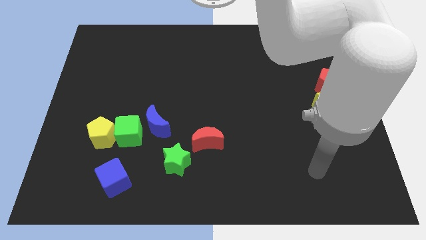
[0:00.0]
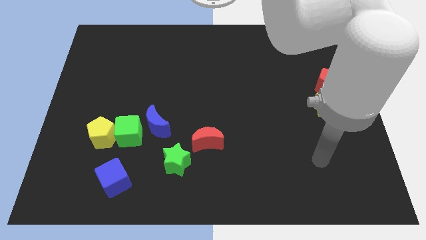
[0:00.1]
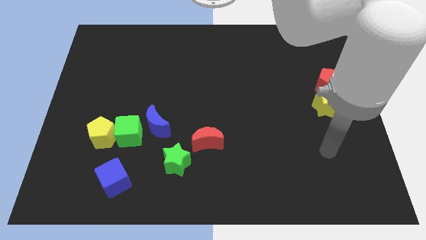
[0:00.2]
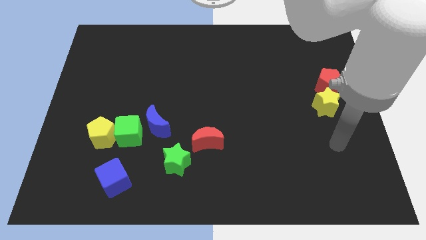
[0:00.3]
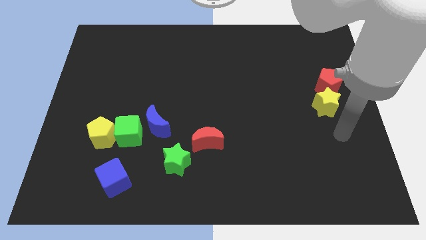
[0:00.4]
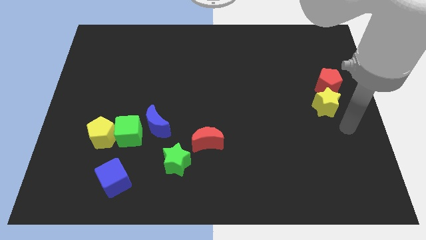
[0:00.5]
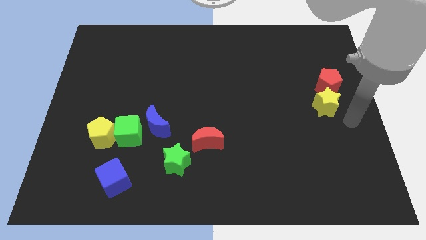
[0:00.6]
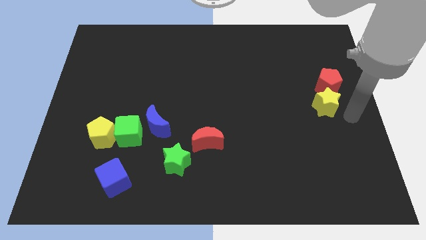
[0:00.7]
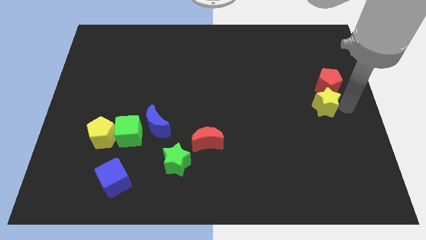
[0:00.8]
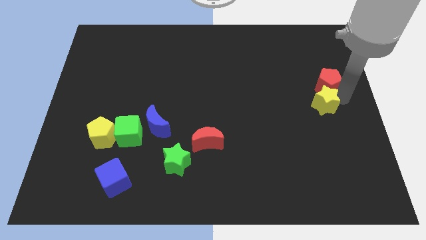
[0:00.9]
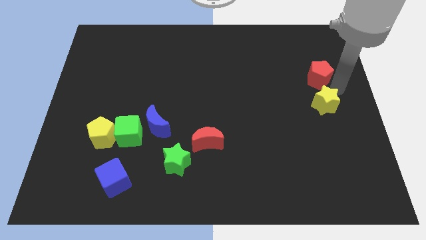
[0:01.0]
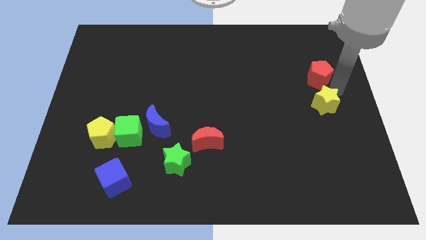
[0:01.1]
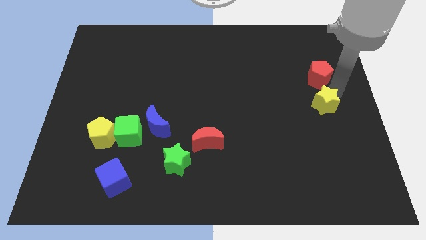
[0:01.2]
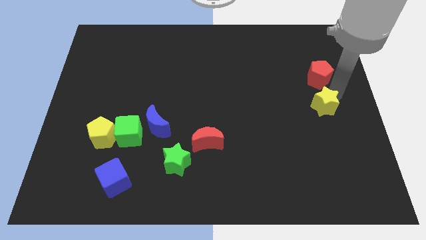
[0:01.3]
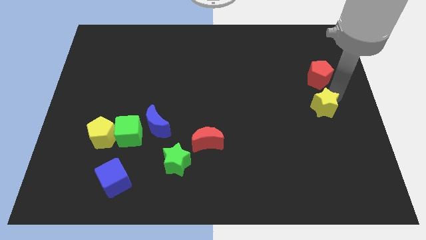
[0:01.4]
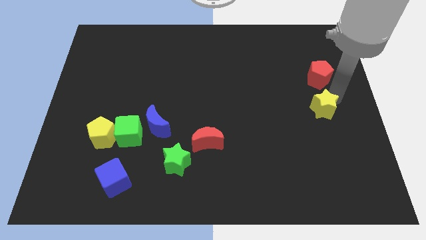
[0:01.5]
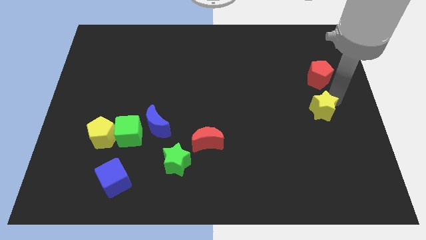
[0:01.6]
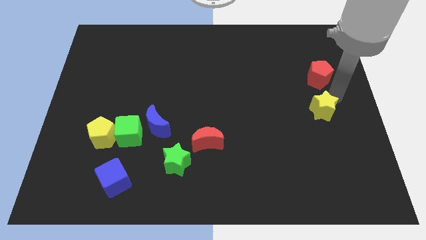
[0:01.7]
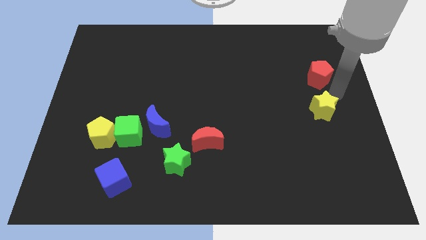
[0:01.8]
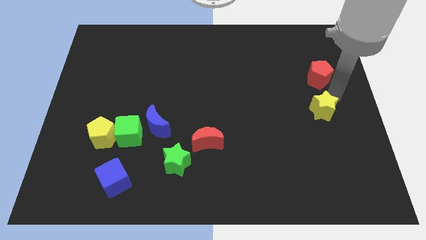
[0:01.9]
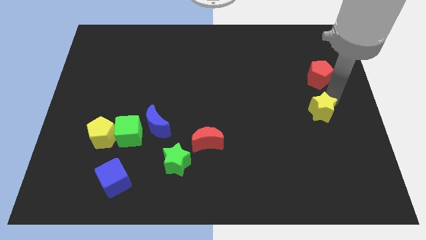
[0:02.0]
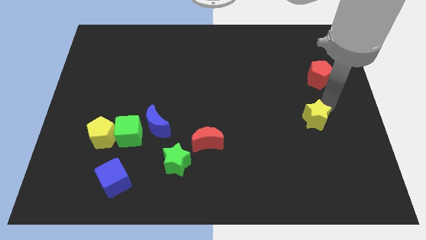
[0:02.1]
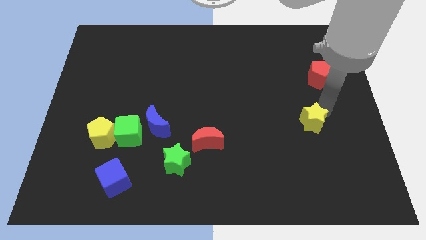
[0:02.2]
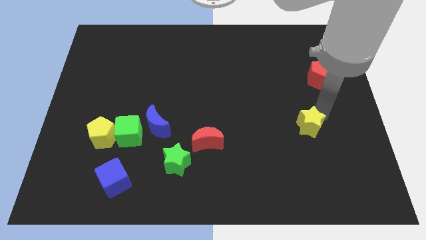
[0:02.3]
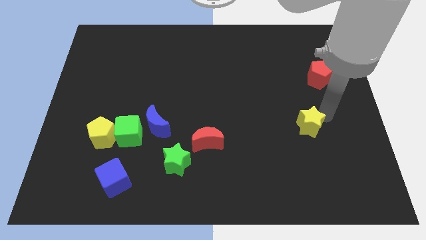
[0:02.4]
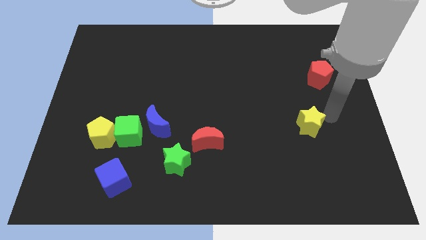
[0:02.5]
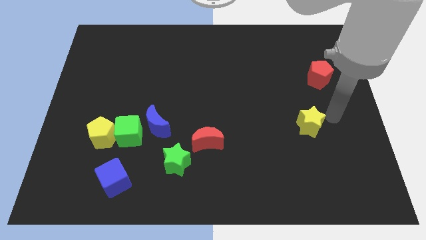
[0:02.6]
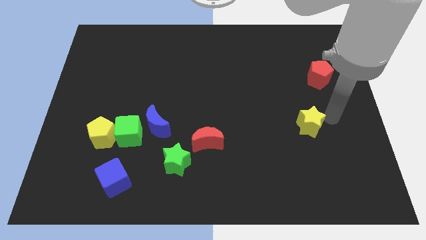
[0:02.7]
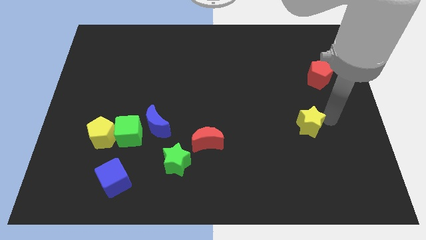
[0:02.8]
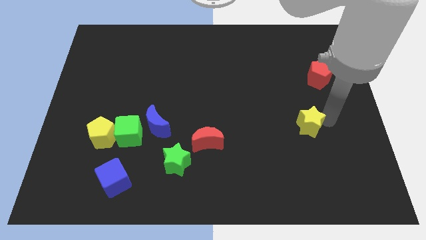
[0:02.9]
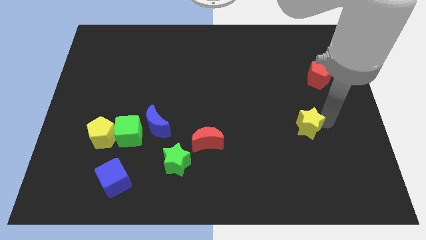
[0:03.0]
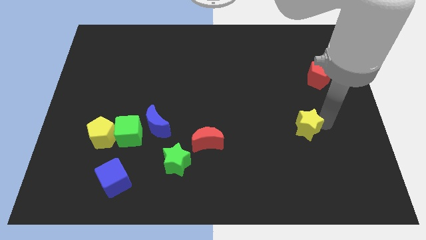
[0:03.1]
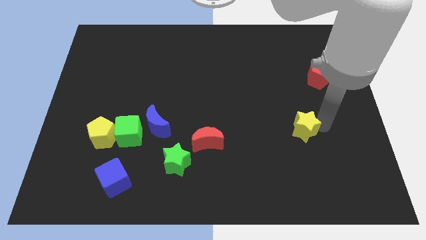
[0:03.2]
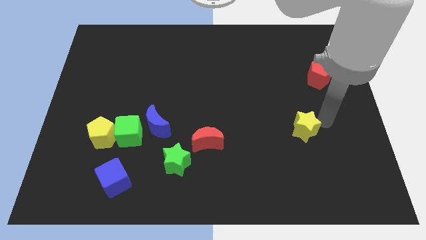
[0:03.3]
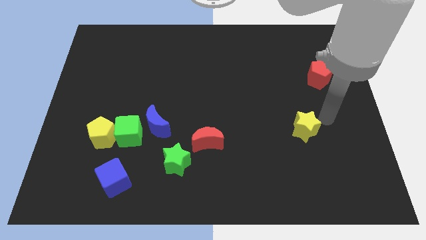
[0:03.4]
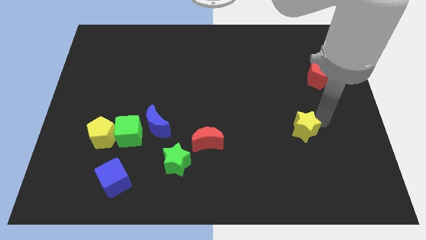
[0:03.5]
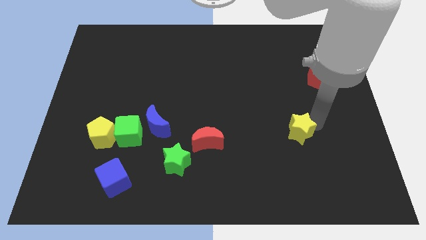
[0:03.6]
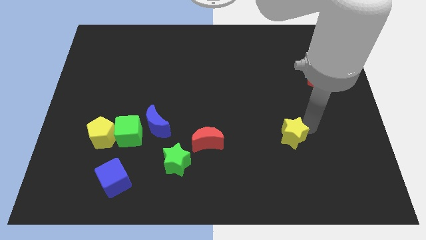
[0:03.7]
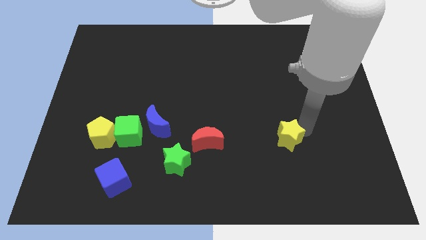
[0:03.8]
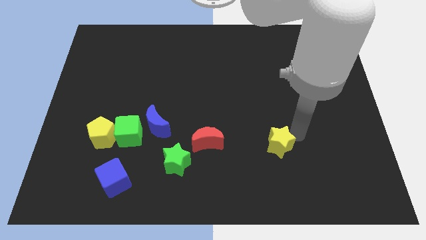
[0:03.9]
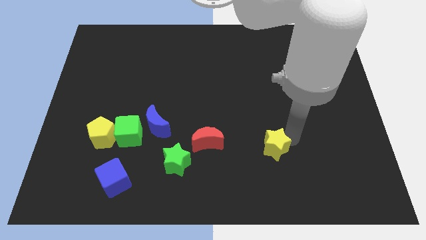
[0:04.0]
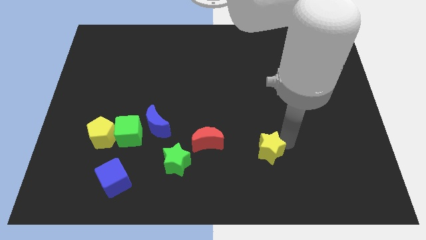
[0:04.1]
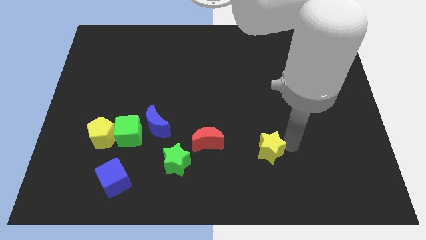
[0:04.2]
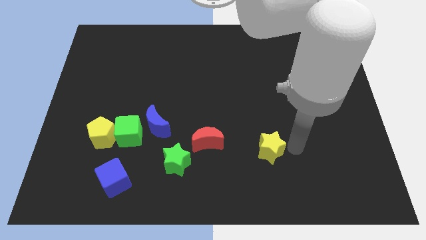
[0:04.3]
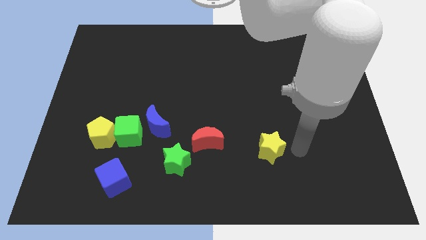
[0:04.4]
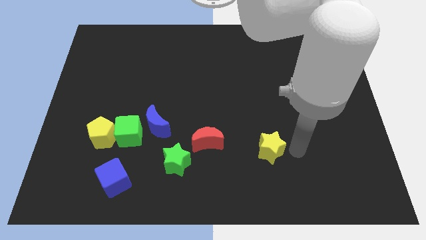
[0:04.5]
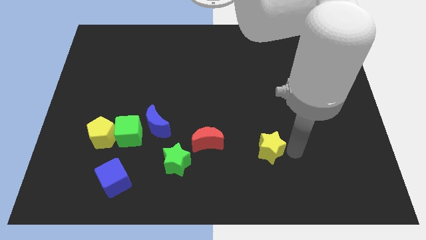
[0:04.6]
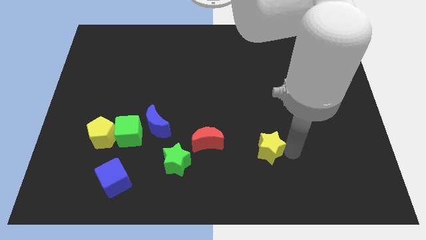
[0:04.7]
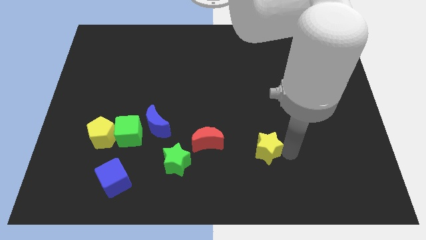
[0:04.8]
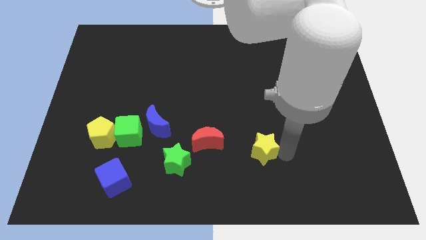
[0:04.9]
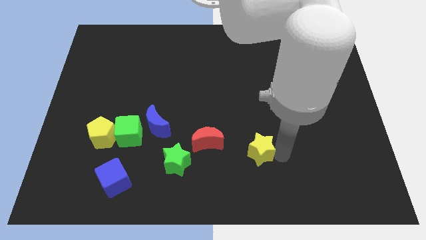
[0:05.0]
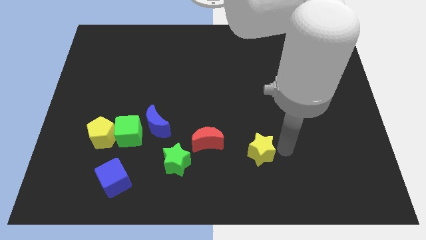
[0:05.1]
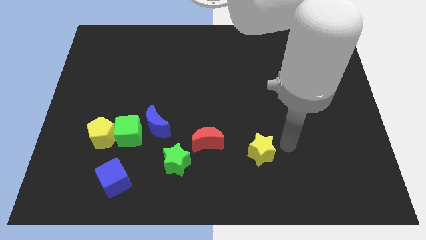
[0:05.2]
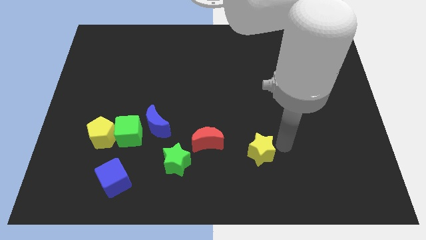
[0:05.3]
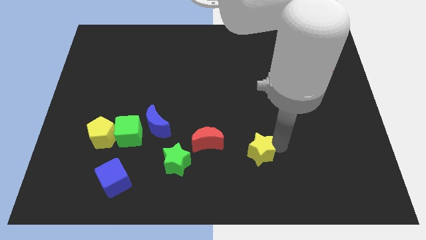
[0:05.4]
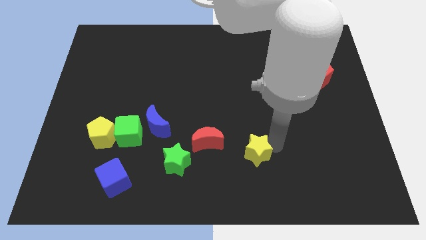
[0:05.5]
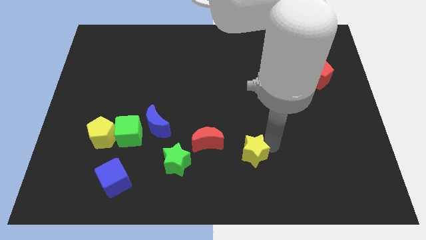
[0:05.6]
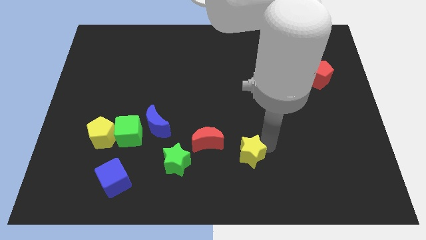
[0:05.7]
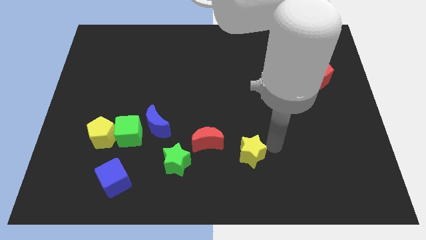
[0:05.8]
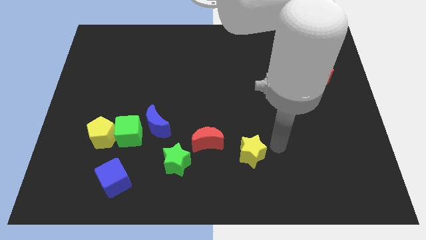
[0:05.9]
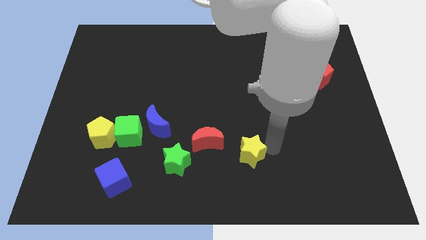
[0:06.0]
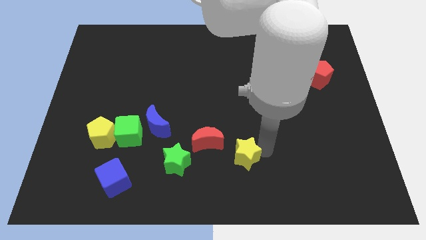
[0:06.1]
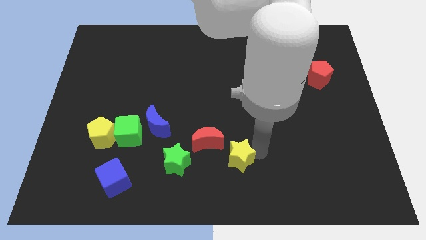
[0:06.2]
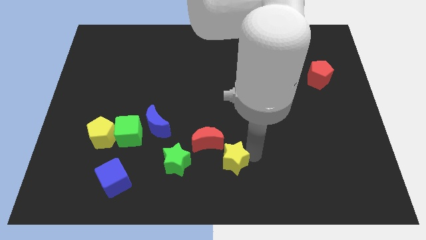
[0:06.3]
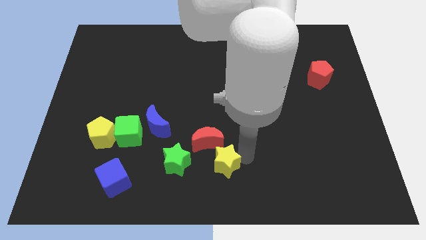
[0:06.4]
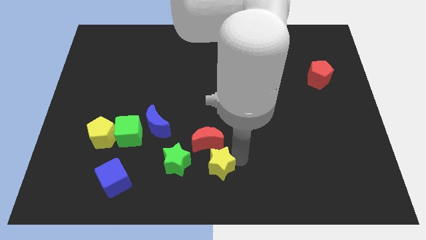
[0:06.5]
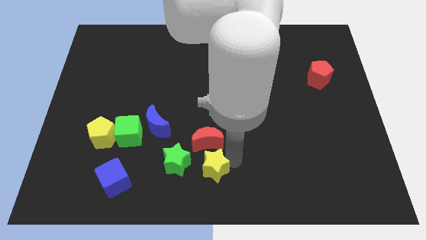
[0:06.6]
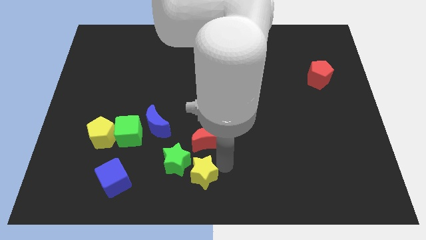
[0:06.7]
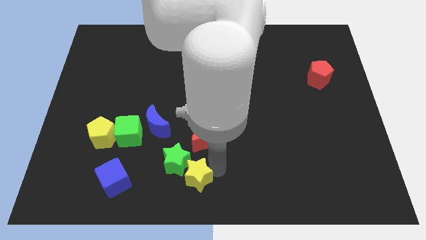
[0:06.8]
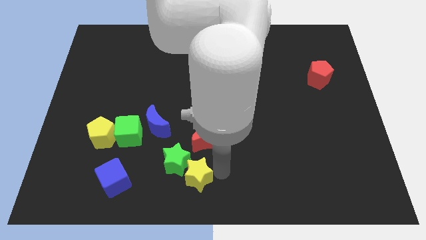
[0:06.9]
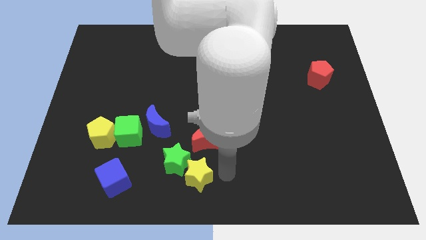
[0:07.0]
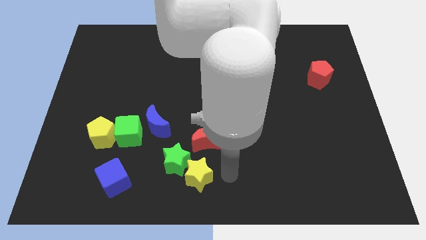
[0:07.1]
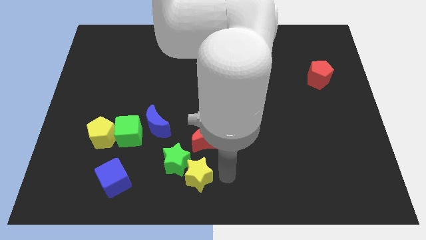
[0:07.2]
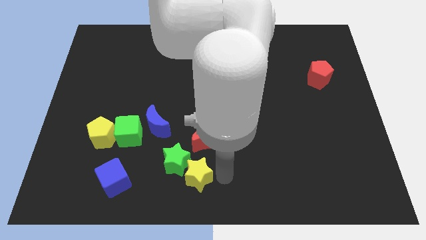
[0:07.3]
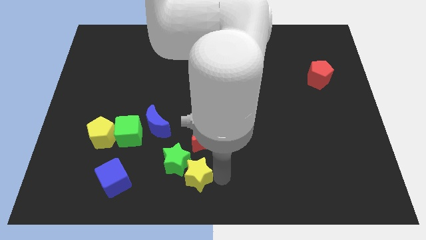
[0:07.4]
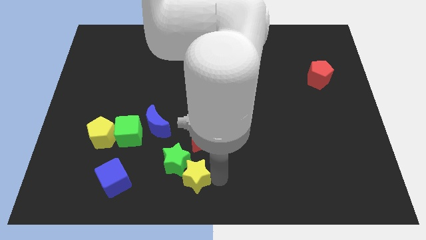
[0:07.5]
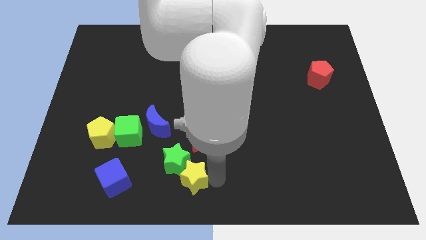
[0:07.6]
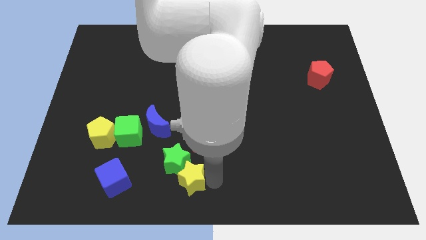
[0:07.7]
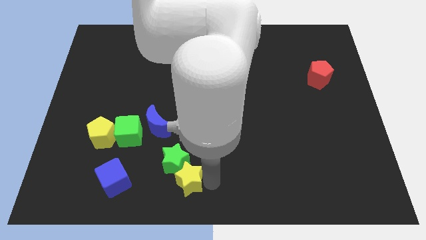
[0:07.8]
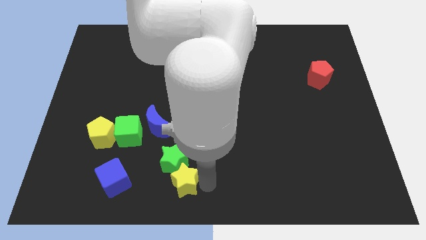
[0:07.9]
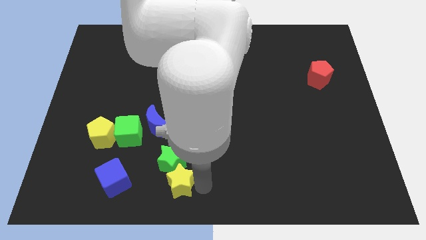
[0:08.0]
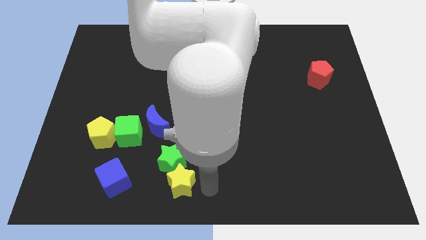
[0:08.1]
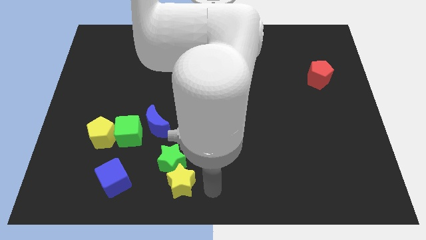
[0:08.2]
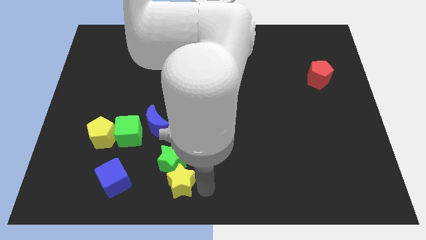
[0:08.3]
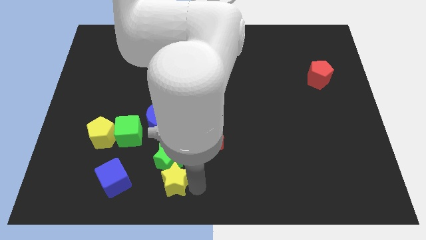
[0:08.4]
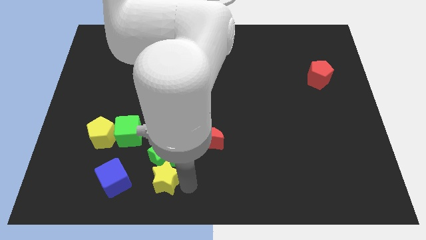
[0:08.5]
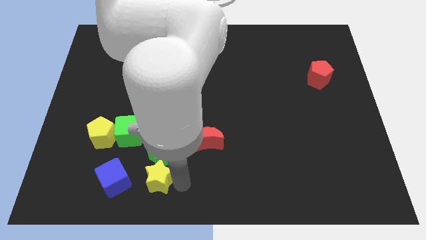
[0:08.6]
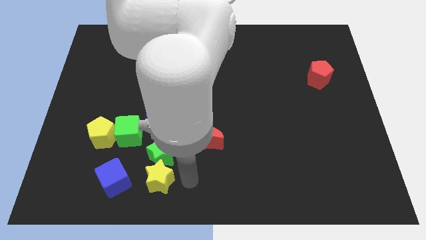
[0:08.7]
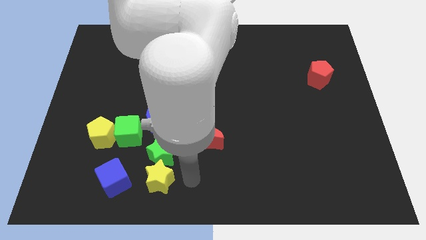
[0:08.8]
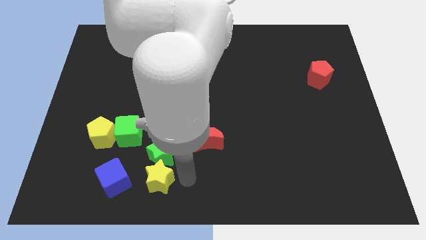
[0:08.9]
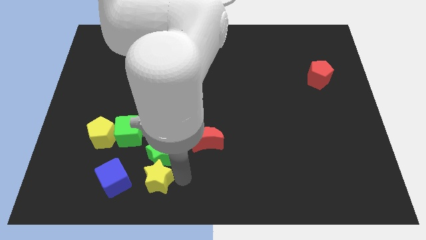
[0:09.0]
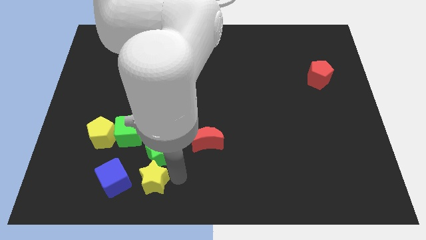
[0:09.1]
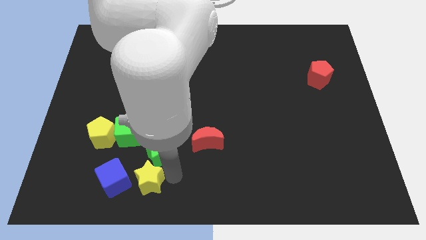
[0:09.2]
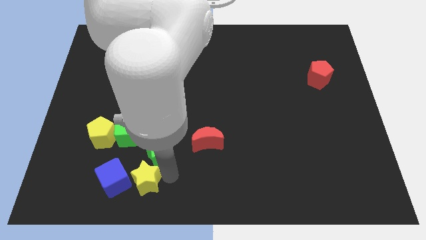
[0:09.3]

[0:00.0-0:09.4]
push the yellow star next to the blue cube
